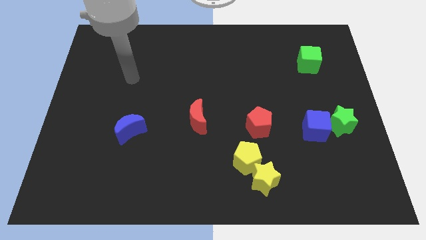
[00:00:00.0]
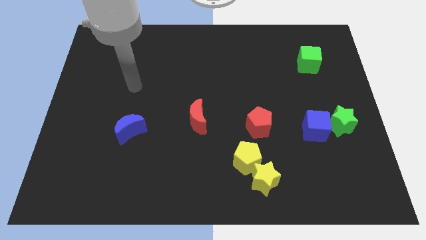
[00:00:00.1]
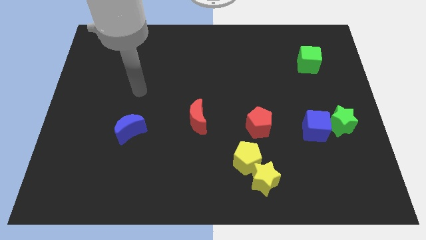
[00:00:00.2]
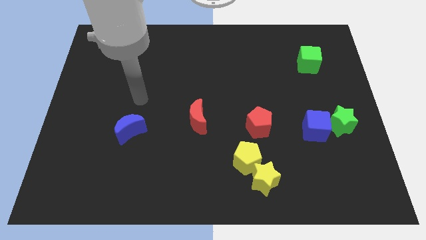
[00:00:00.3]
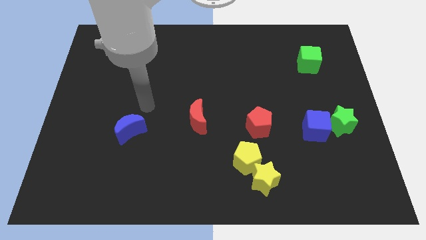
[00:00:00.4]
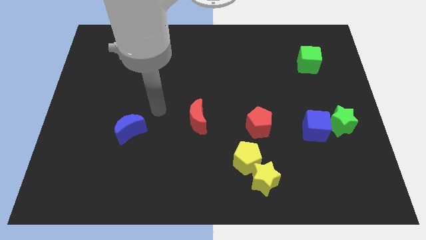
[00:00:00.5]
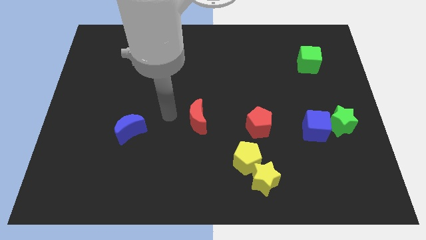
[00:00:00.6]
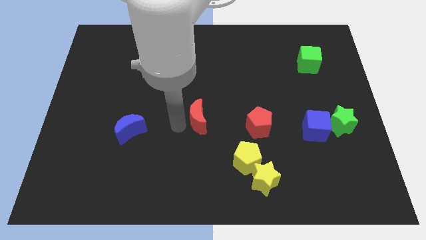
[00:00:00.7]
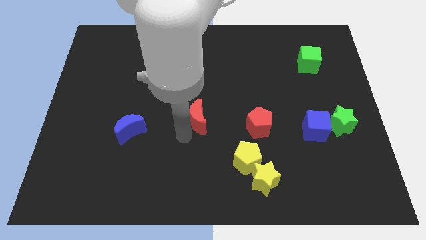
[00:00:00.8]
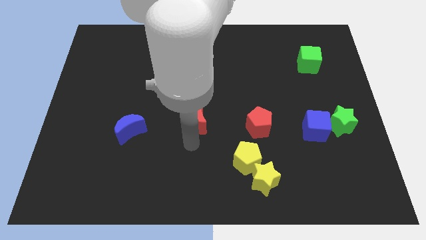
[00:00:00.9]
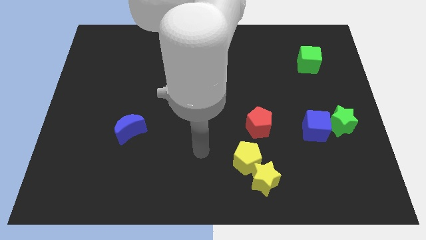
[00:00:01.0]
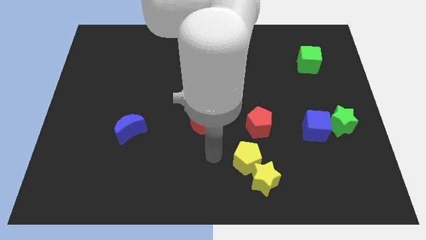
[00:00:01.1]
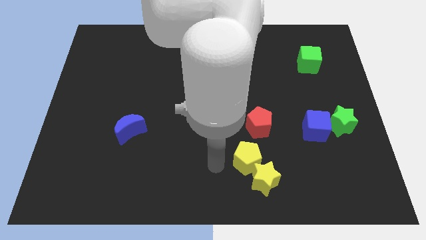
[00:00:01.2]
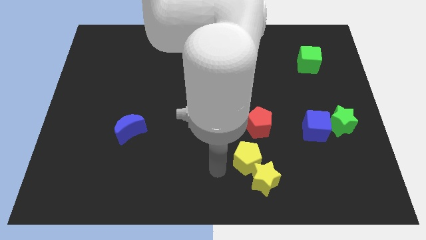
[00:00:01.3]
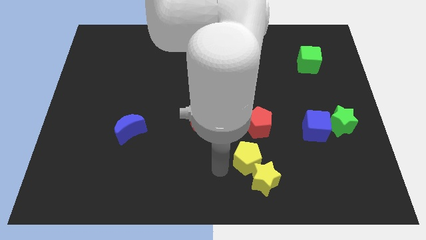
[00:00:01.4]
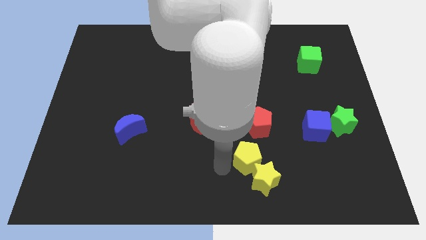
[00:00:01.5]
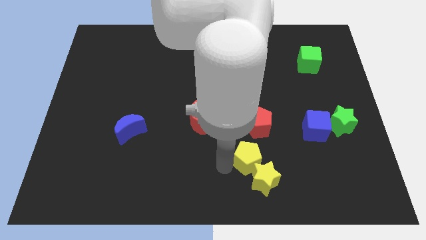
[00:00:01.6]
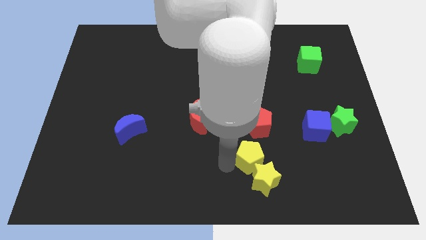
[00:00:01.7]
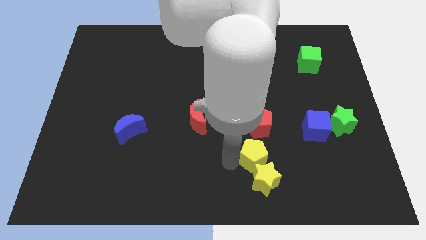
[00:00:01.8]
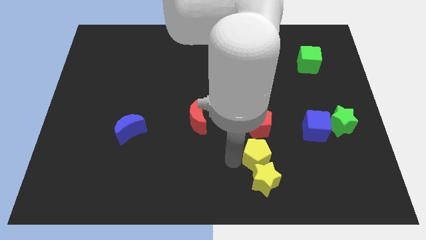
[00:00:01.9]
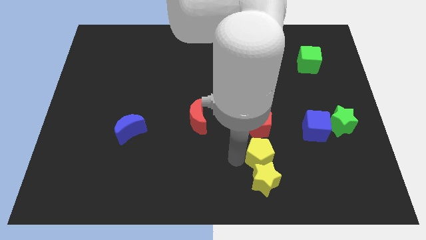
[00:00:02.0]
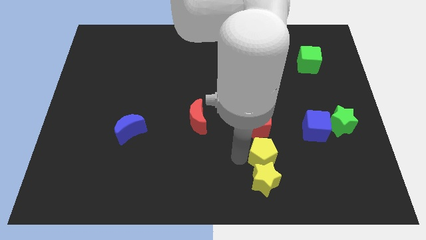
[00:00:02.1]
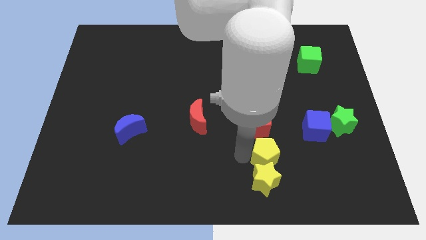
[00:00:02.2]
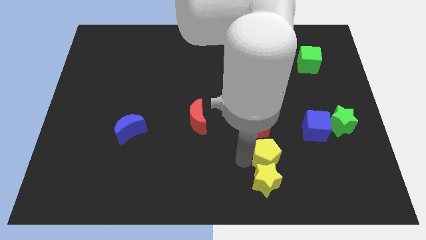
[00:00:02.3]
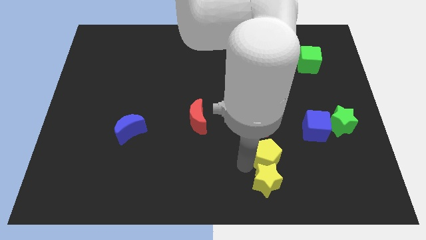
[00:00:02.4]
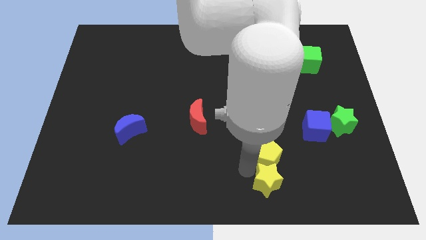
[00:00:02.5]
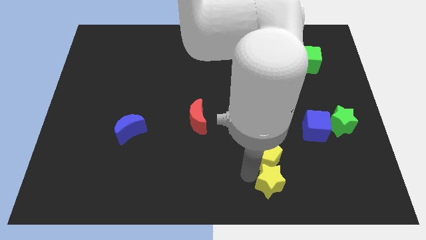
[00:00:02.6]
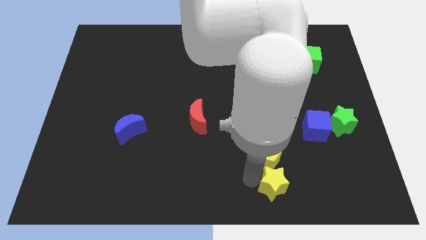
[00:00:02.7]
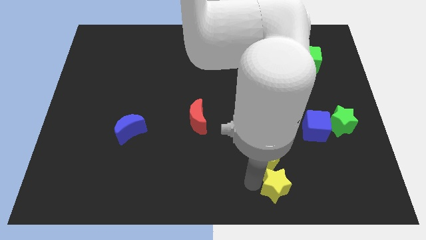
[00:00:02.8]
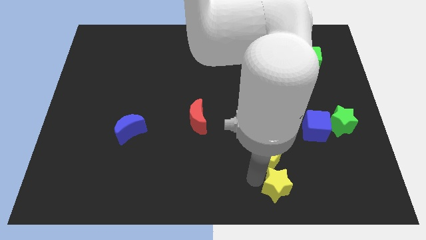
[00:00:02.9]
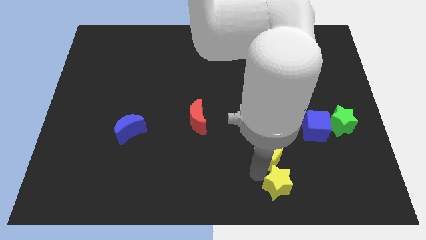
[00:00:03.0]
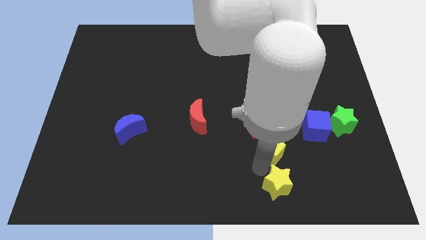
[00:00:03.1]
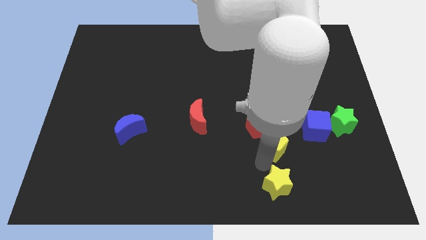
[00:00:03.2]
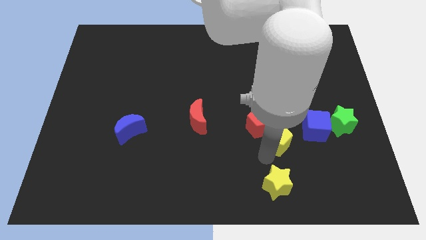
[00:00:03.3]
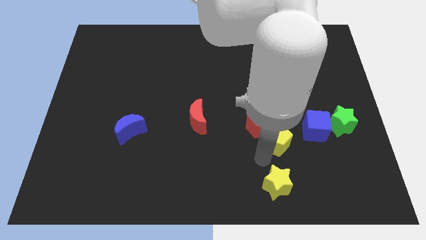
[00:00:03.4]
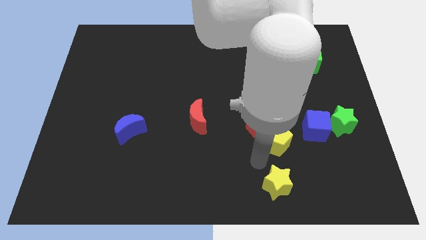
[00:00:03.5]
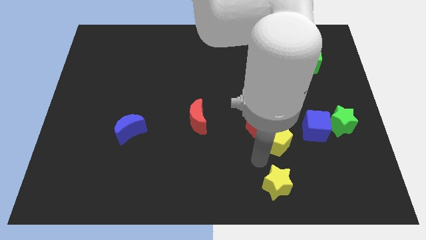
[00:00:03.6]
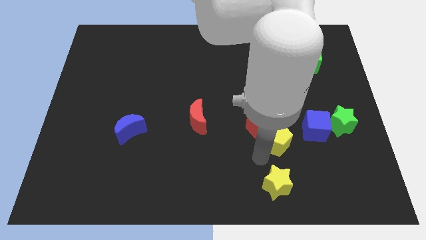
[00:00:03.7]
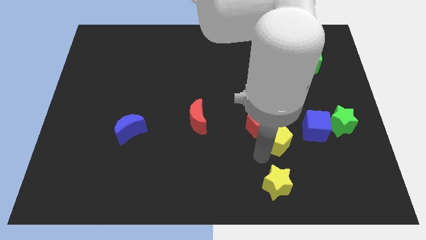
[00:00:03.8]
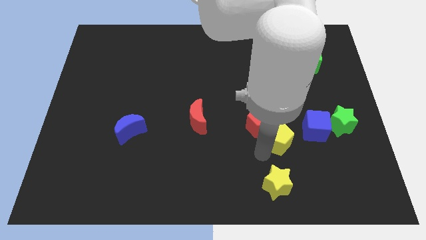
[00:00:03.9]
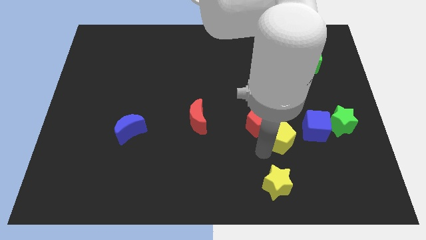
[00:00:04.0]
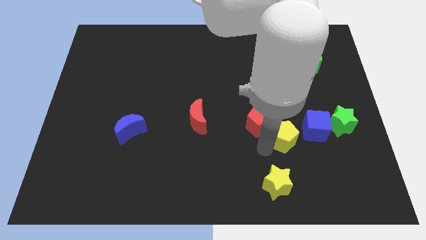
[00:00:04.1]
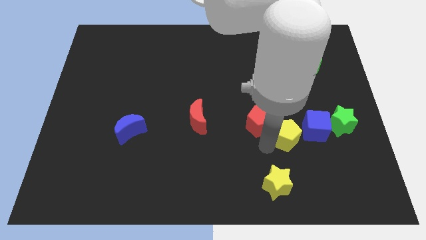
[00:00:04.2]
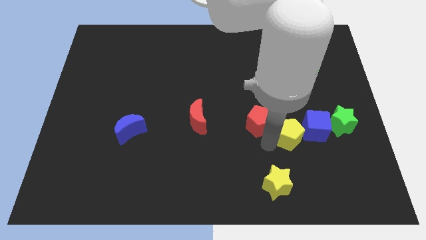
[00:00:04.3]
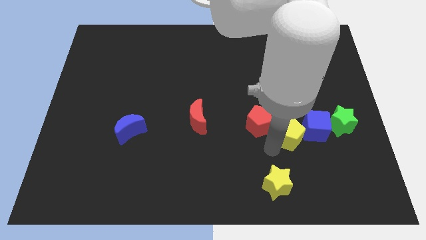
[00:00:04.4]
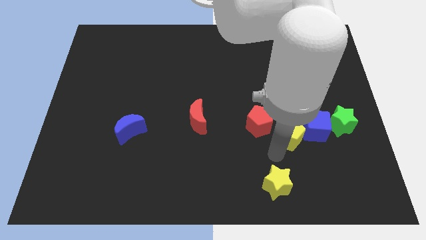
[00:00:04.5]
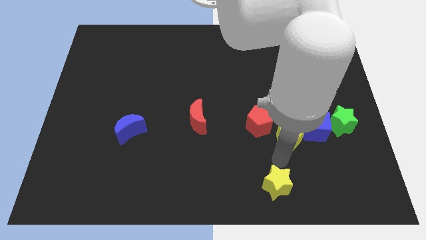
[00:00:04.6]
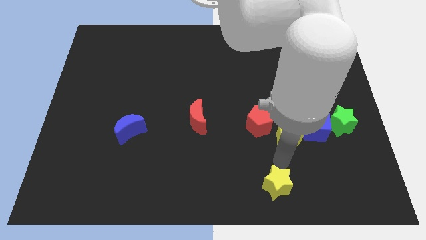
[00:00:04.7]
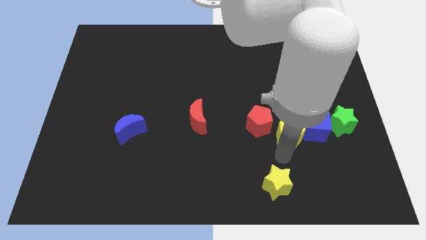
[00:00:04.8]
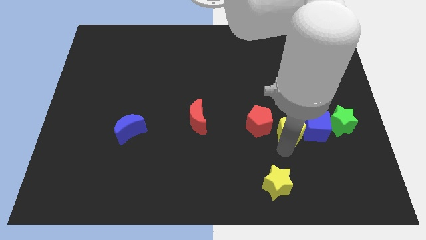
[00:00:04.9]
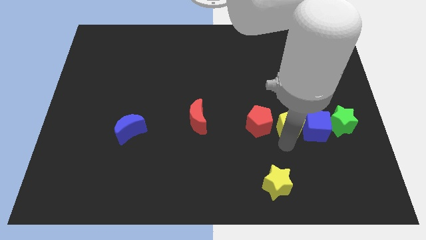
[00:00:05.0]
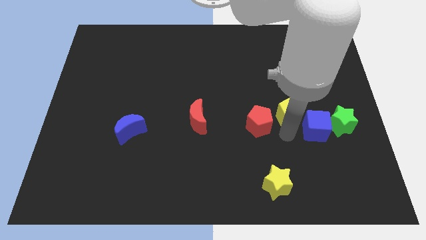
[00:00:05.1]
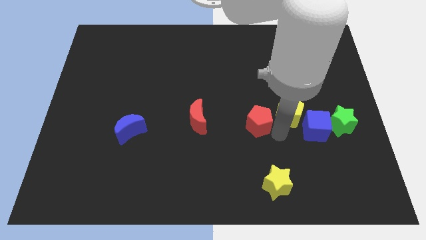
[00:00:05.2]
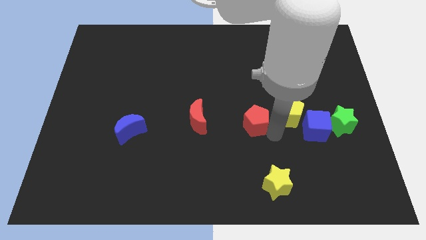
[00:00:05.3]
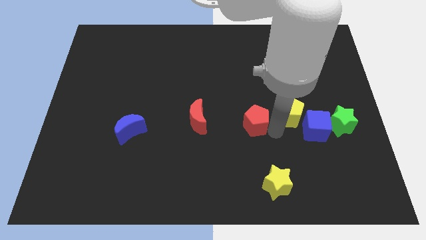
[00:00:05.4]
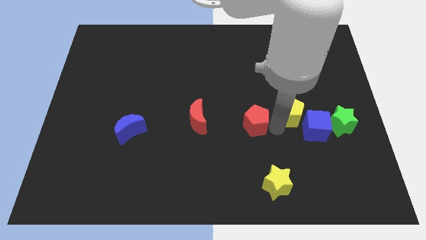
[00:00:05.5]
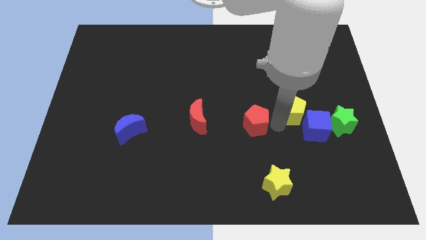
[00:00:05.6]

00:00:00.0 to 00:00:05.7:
move the yellow pentagon above the blue cube
